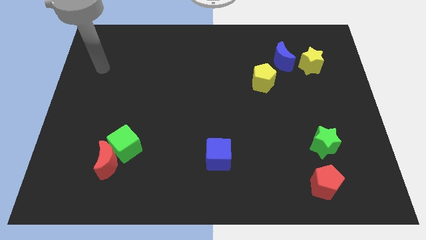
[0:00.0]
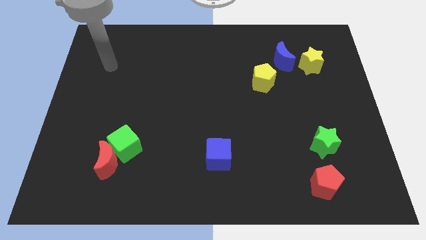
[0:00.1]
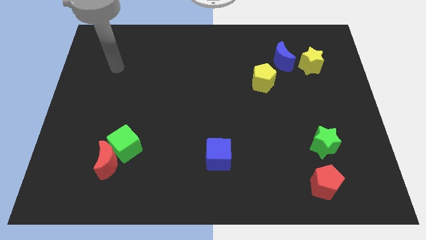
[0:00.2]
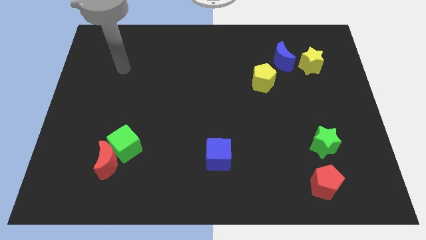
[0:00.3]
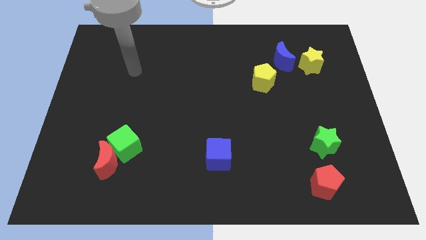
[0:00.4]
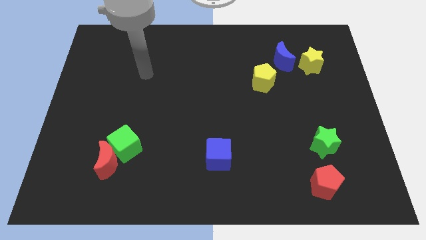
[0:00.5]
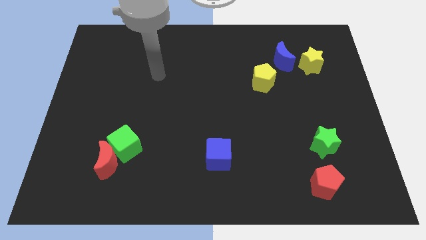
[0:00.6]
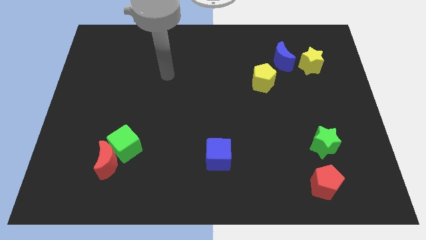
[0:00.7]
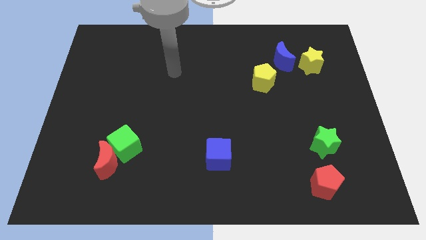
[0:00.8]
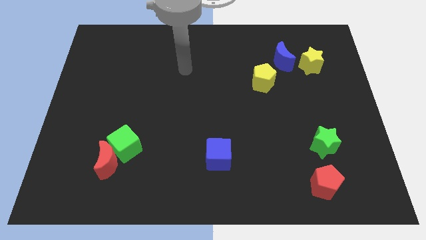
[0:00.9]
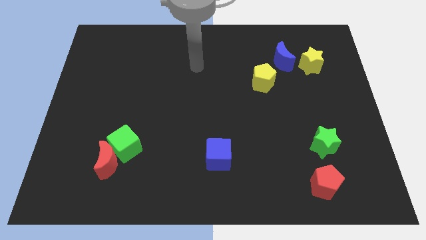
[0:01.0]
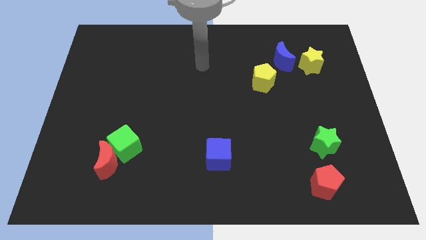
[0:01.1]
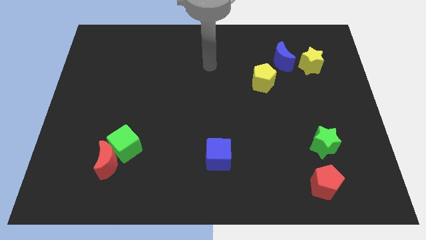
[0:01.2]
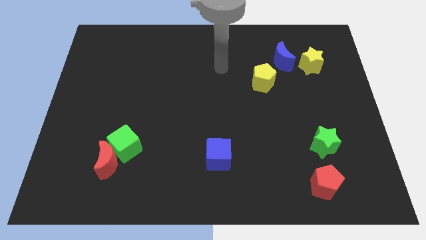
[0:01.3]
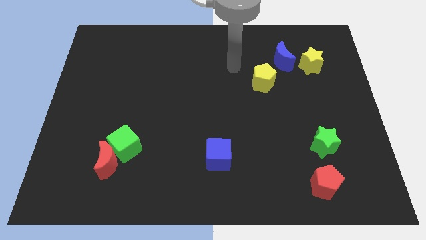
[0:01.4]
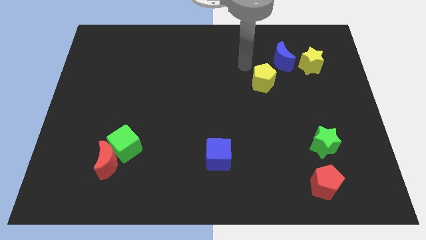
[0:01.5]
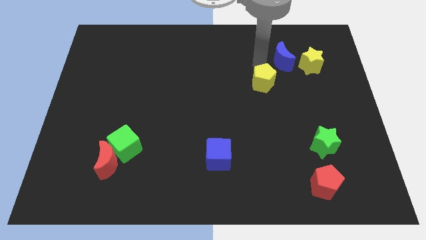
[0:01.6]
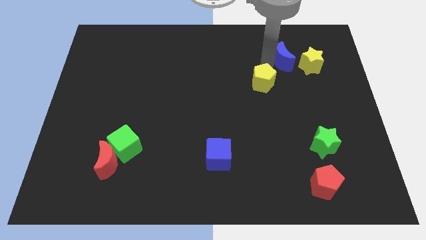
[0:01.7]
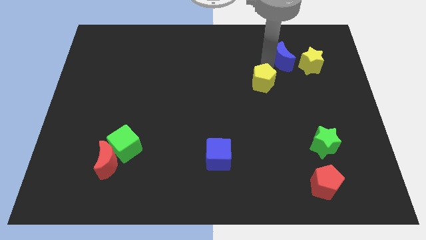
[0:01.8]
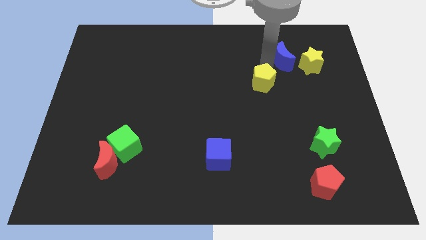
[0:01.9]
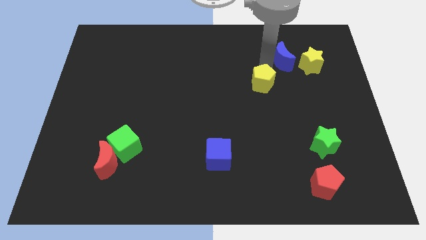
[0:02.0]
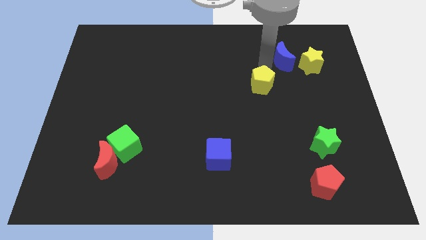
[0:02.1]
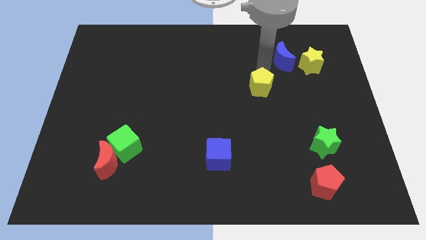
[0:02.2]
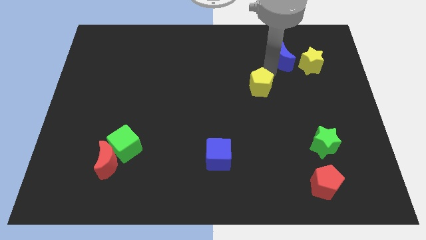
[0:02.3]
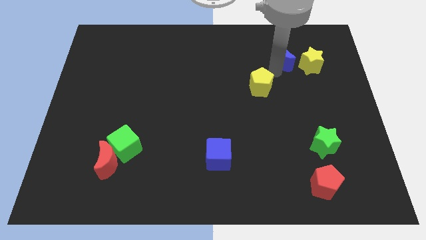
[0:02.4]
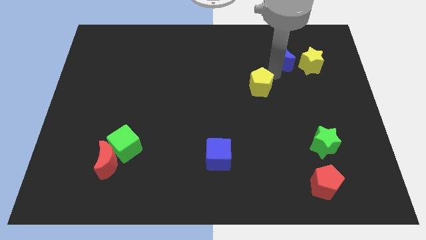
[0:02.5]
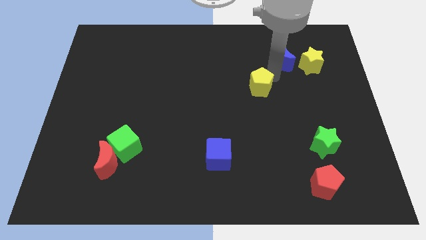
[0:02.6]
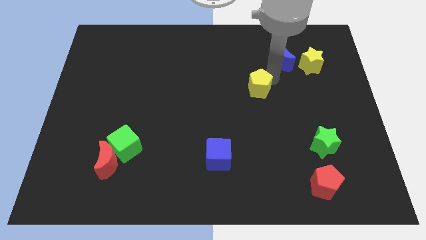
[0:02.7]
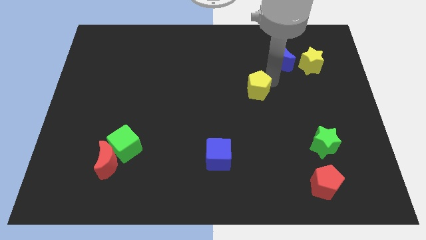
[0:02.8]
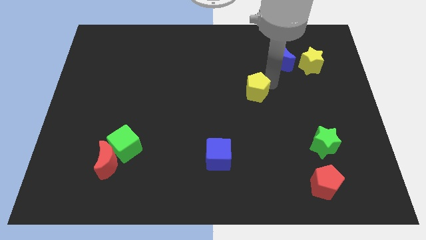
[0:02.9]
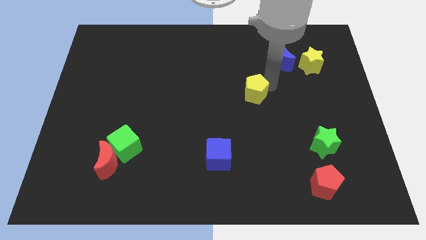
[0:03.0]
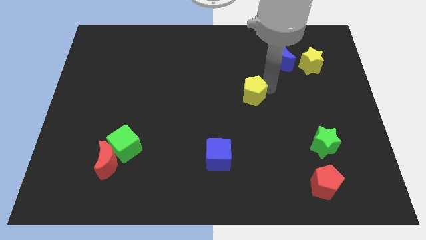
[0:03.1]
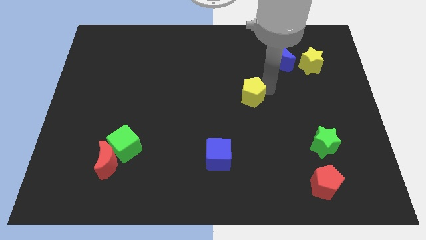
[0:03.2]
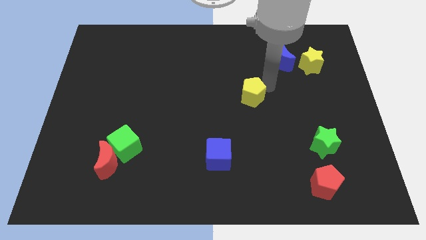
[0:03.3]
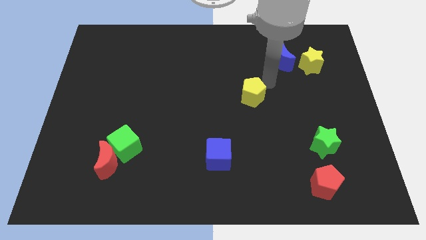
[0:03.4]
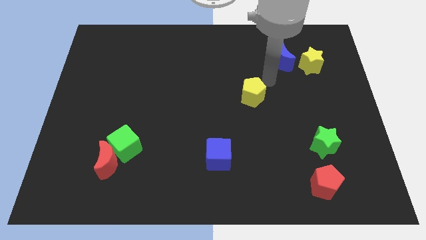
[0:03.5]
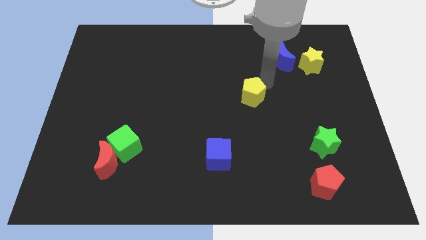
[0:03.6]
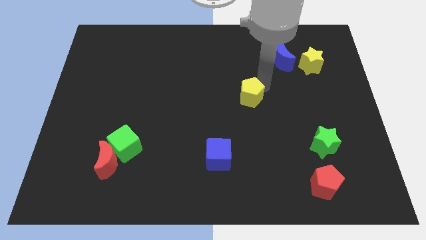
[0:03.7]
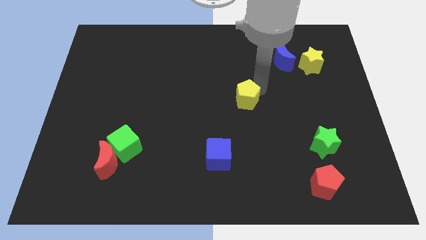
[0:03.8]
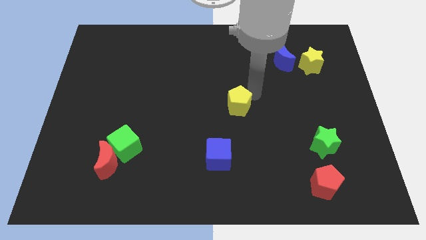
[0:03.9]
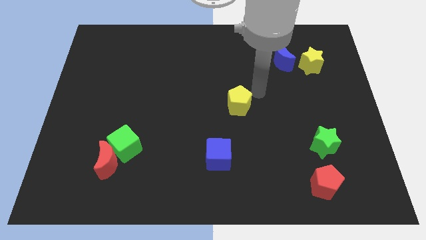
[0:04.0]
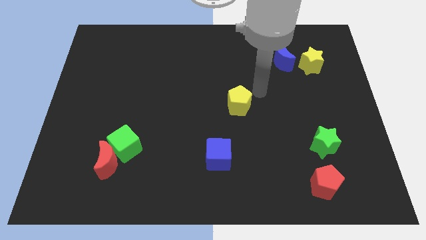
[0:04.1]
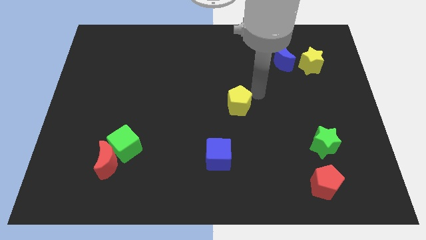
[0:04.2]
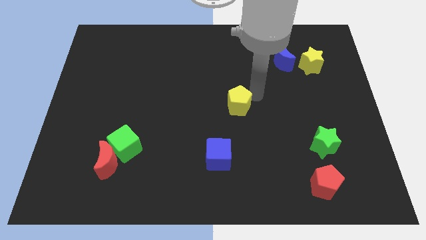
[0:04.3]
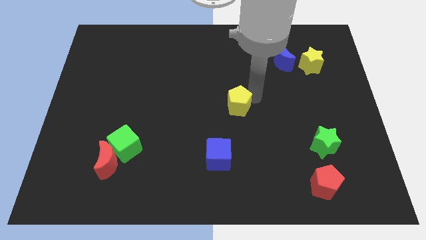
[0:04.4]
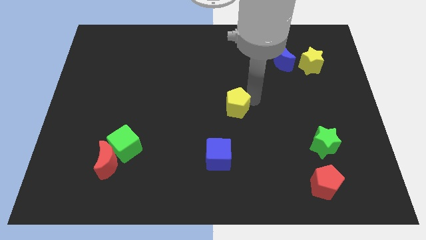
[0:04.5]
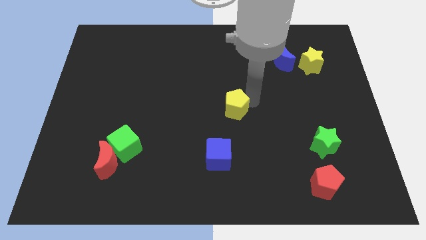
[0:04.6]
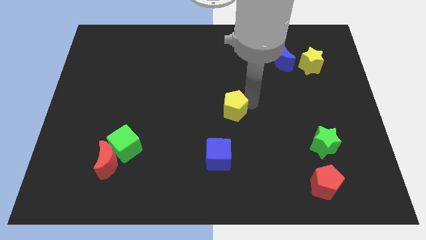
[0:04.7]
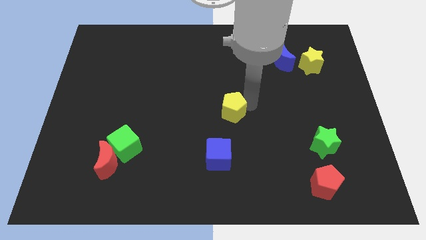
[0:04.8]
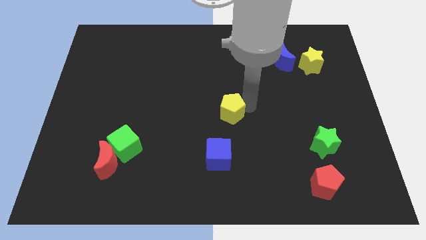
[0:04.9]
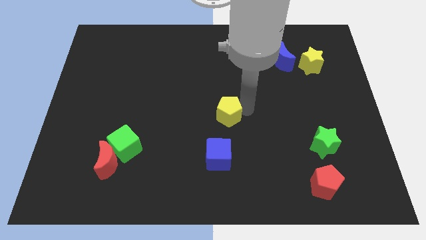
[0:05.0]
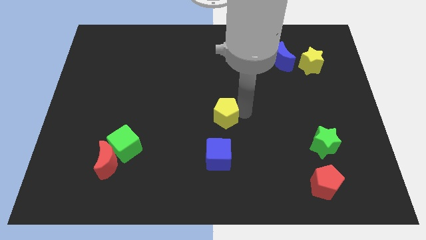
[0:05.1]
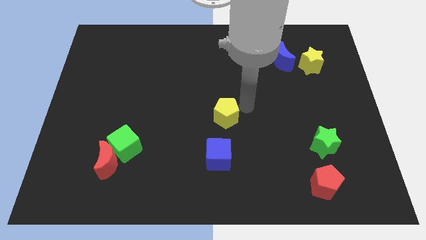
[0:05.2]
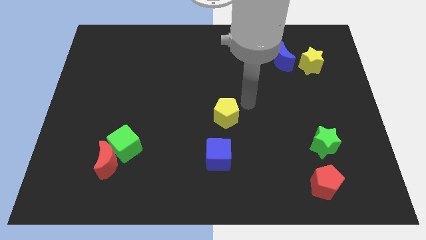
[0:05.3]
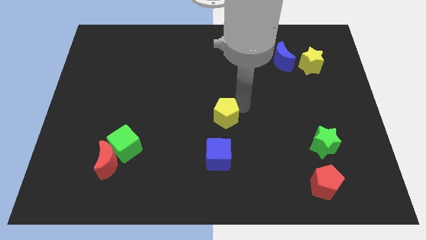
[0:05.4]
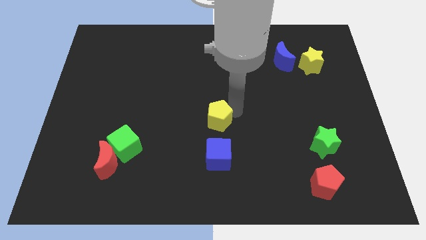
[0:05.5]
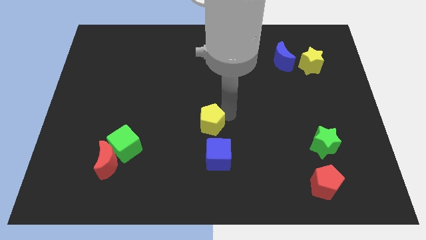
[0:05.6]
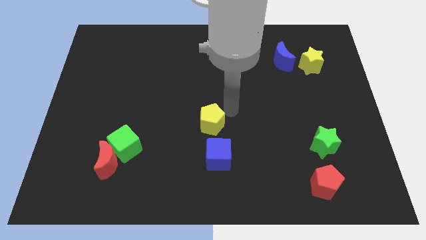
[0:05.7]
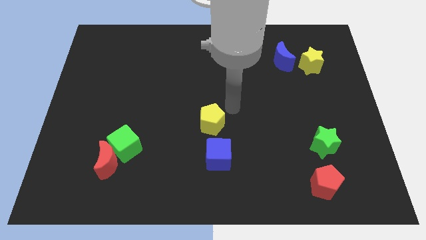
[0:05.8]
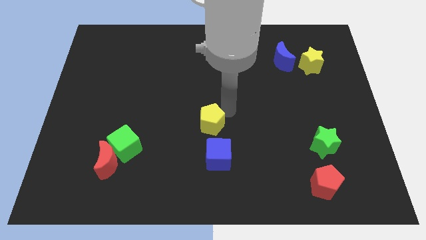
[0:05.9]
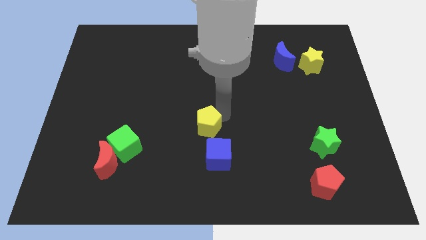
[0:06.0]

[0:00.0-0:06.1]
put the yellow pentagon diagonally up and to the left of the blue cube

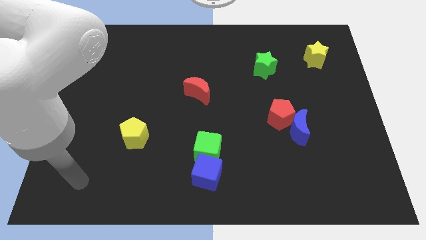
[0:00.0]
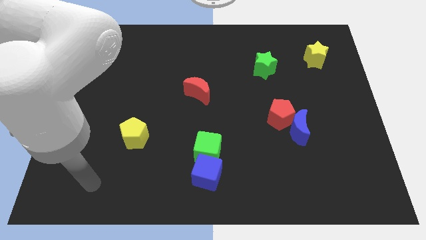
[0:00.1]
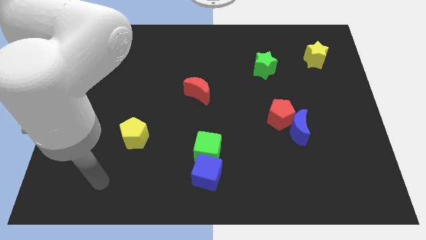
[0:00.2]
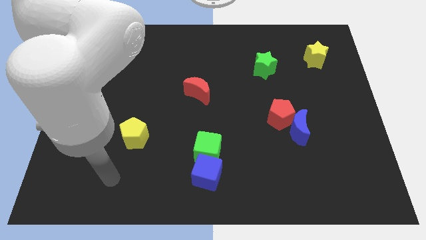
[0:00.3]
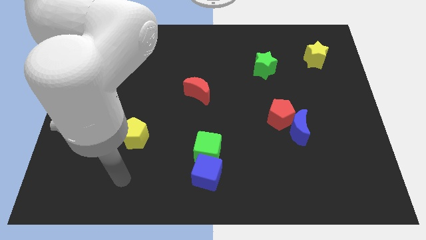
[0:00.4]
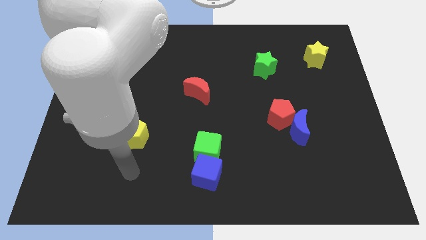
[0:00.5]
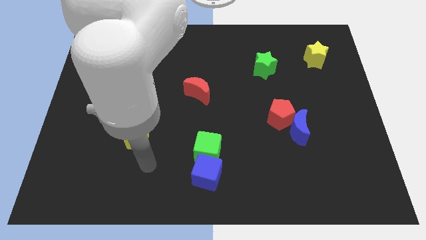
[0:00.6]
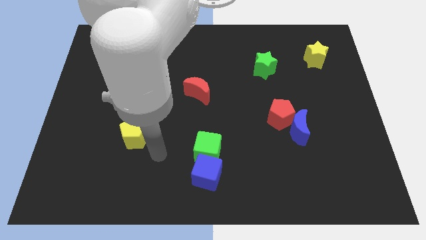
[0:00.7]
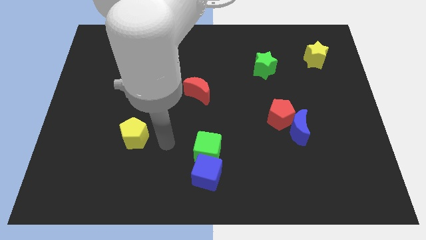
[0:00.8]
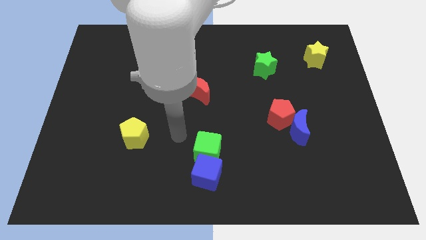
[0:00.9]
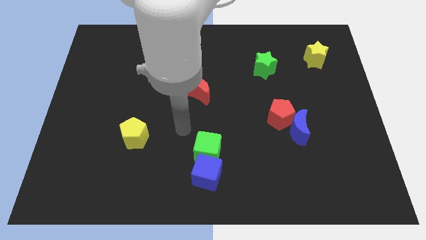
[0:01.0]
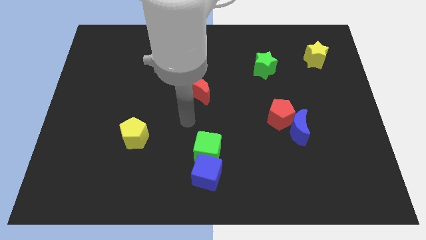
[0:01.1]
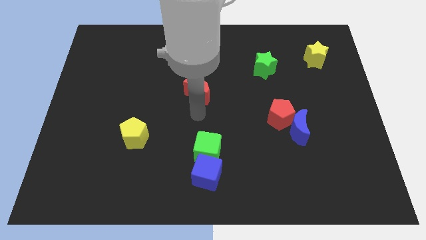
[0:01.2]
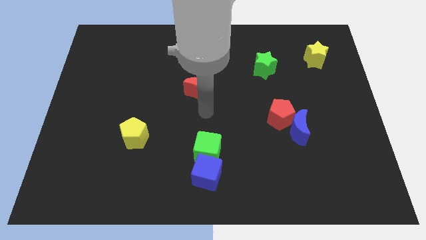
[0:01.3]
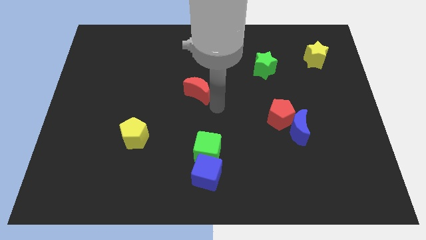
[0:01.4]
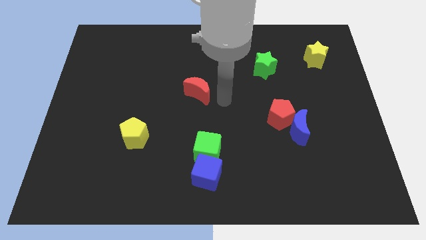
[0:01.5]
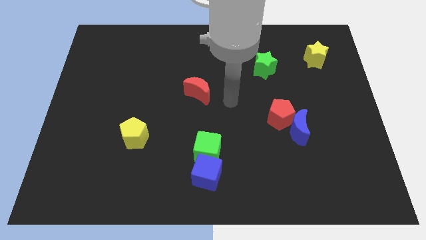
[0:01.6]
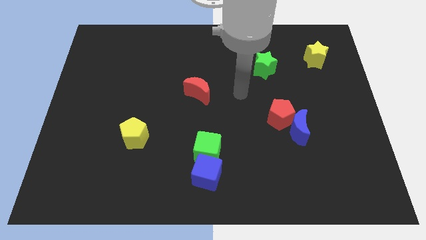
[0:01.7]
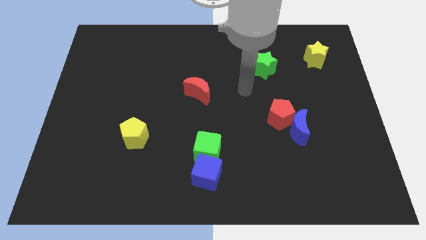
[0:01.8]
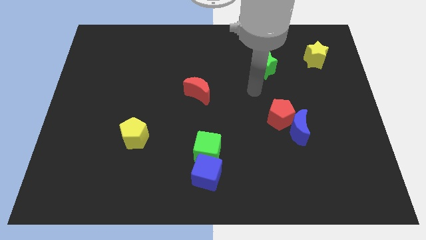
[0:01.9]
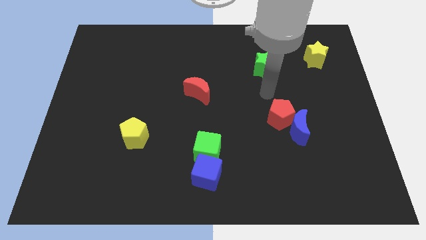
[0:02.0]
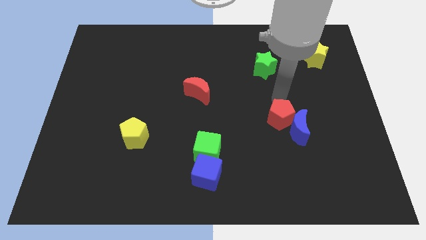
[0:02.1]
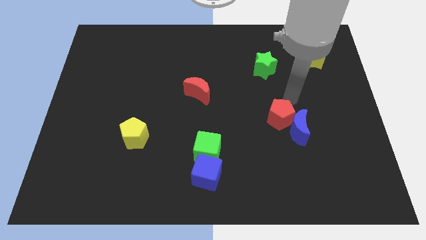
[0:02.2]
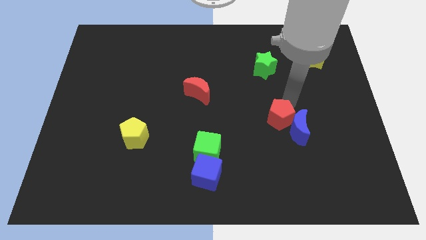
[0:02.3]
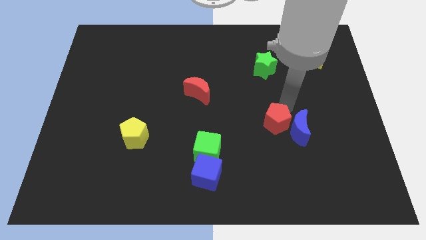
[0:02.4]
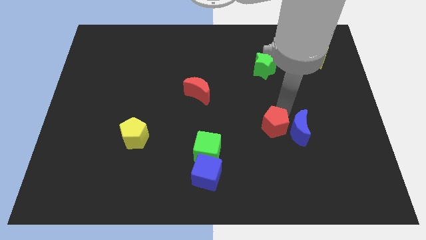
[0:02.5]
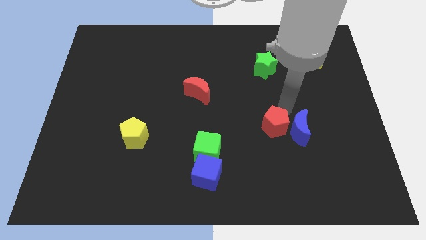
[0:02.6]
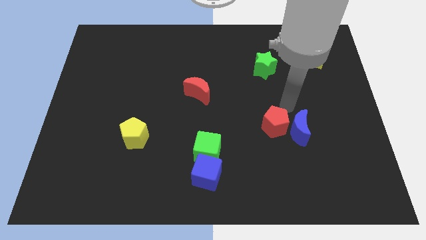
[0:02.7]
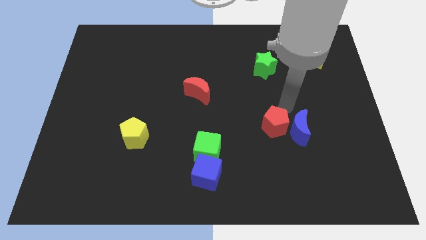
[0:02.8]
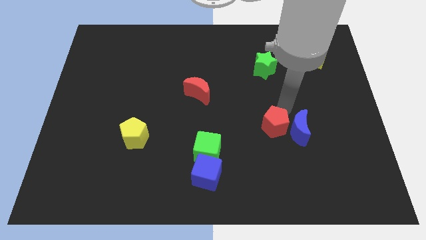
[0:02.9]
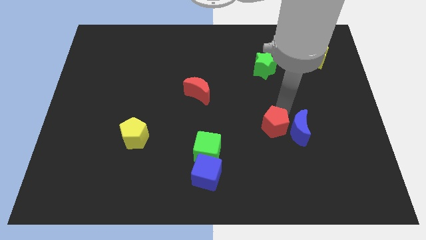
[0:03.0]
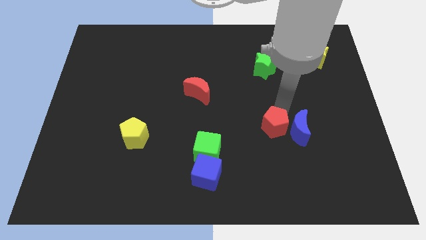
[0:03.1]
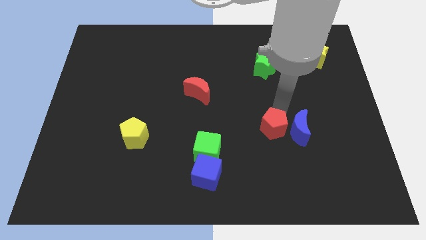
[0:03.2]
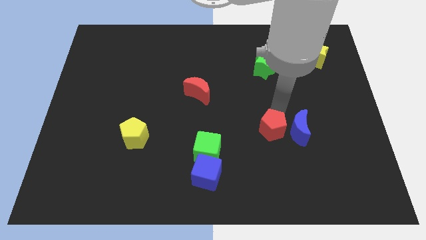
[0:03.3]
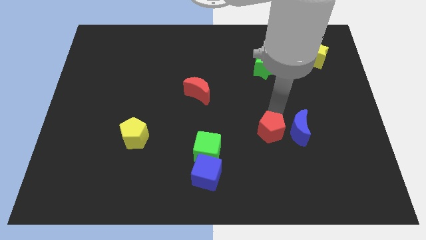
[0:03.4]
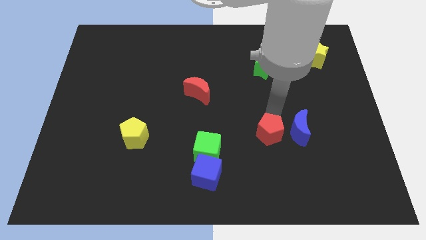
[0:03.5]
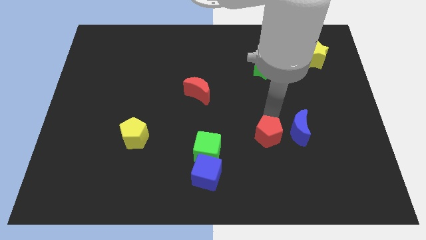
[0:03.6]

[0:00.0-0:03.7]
push the red pentagon right of the green cube
